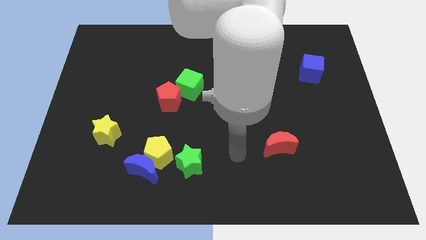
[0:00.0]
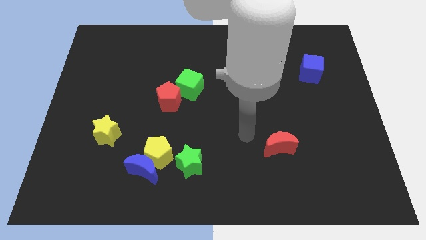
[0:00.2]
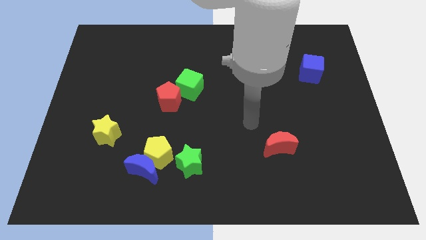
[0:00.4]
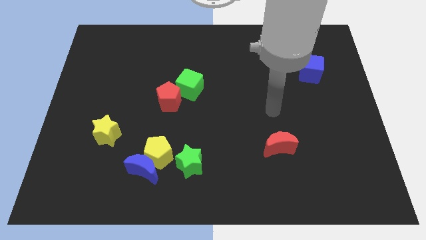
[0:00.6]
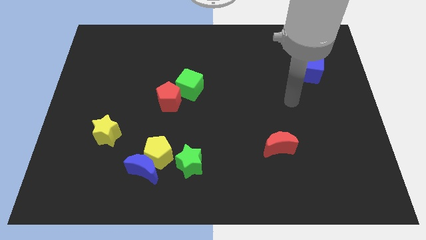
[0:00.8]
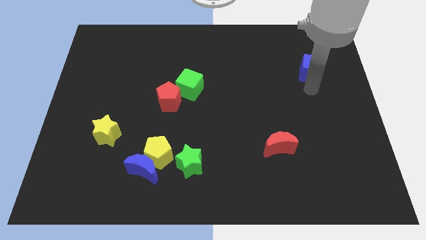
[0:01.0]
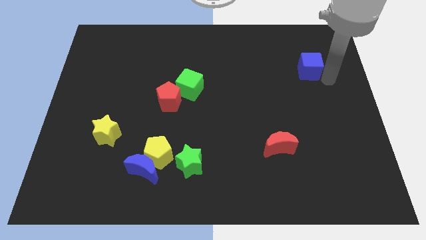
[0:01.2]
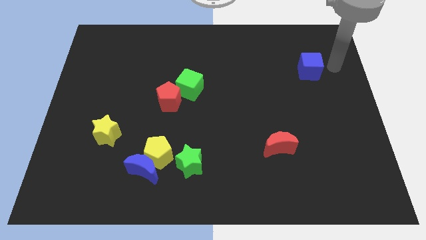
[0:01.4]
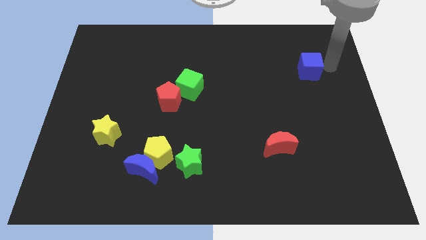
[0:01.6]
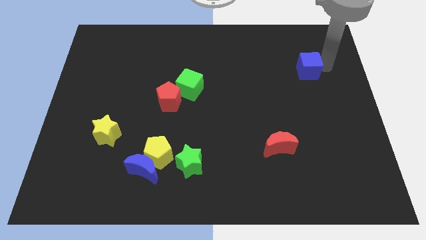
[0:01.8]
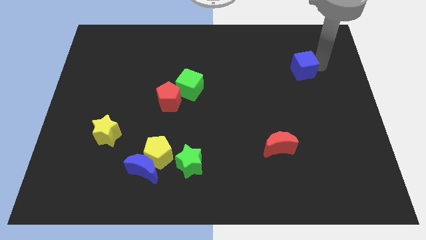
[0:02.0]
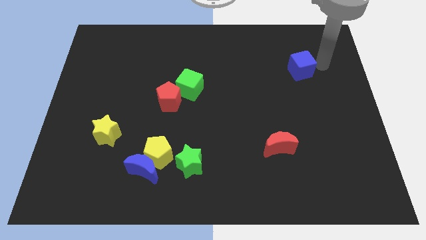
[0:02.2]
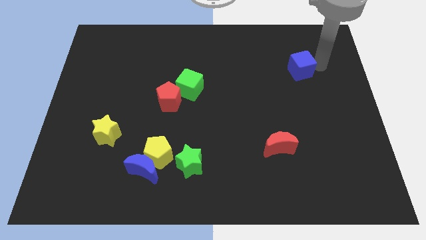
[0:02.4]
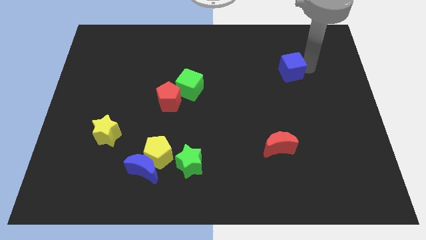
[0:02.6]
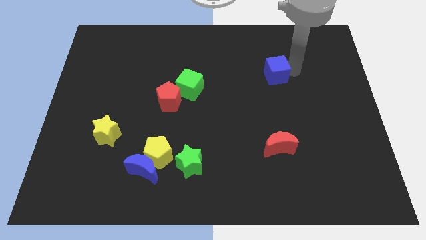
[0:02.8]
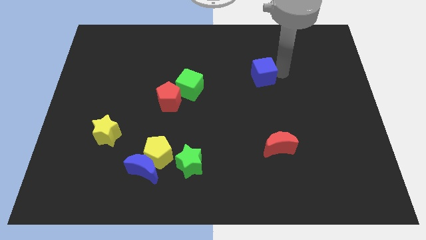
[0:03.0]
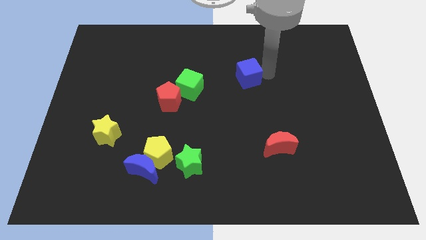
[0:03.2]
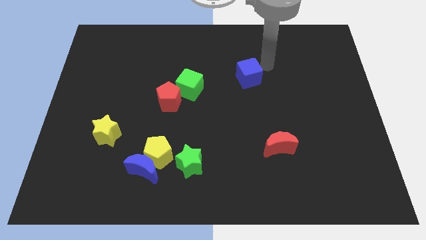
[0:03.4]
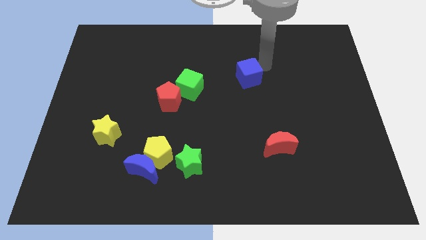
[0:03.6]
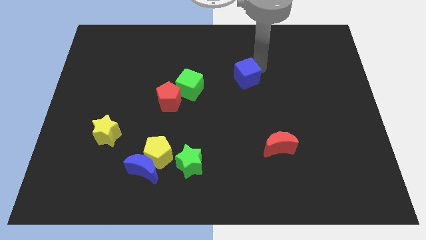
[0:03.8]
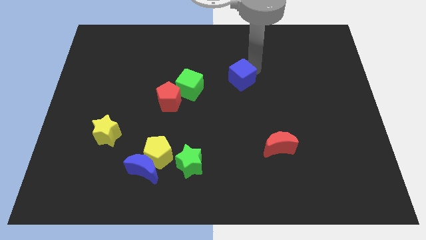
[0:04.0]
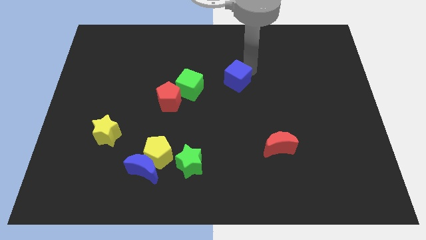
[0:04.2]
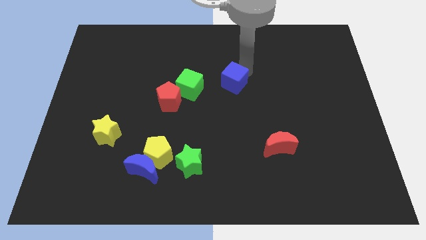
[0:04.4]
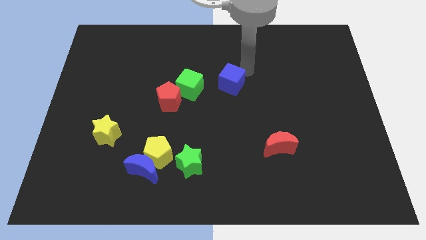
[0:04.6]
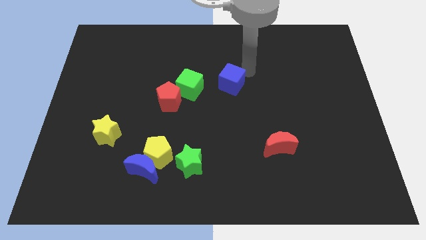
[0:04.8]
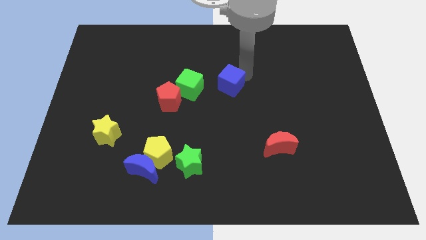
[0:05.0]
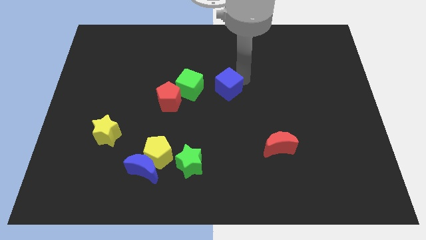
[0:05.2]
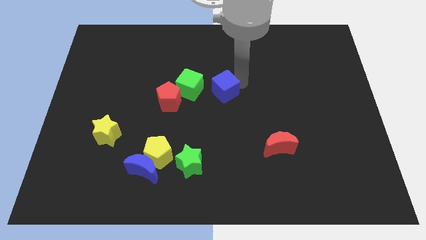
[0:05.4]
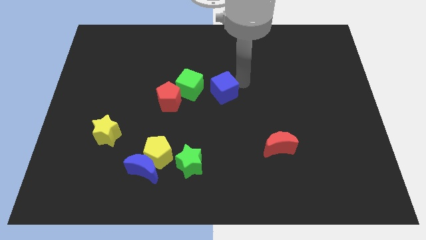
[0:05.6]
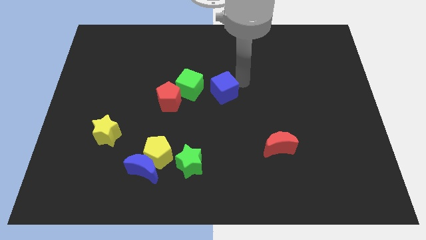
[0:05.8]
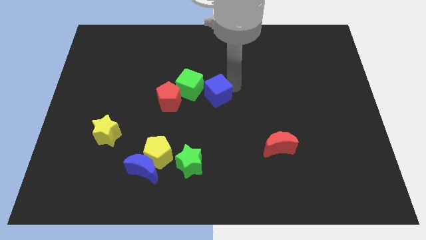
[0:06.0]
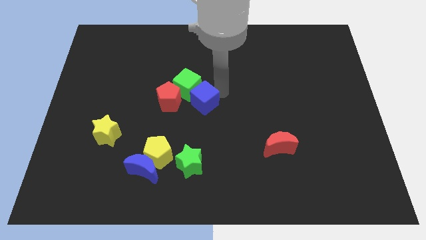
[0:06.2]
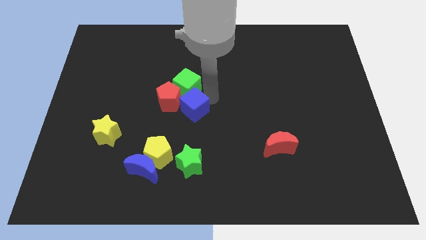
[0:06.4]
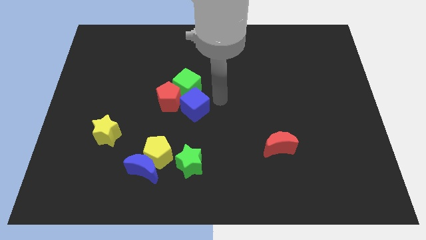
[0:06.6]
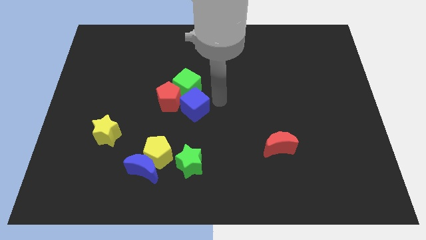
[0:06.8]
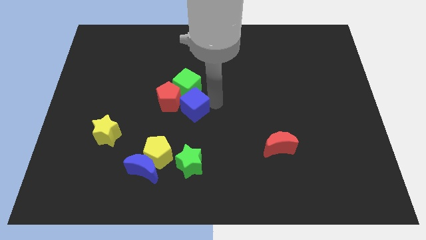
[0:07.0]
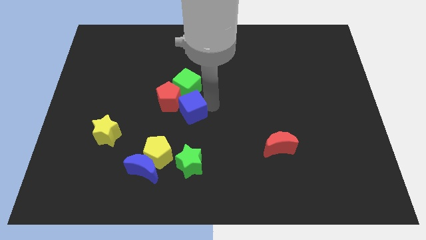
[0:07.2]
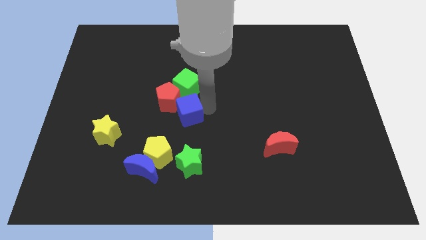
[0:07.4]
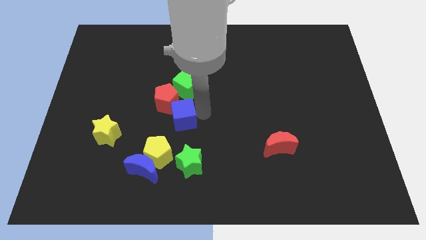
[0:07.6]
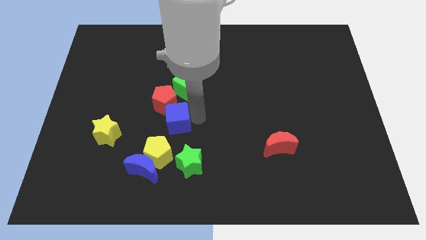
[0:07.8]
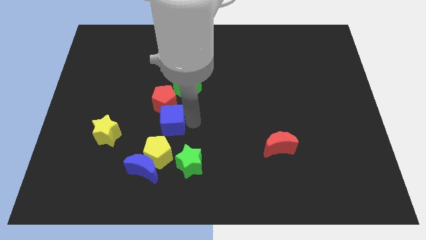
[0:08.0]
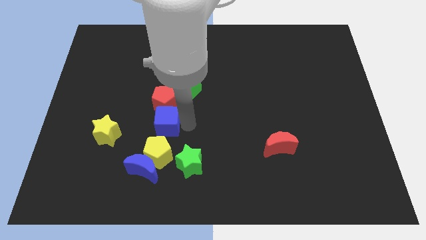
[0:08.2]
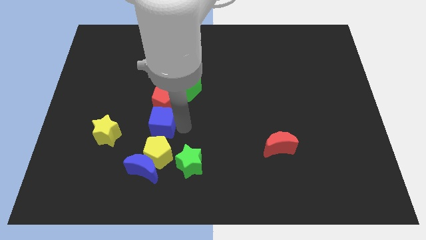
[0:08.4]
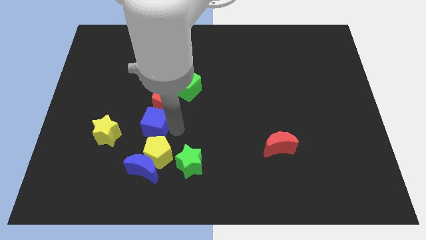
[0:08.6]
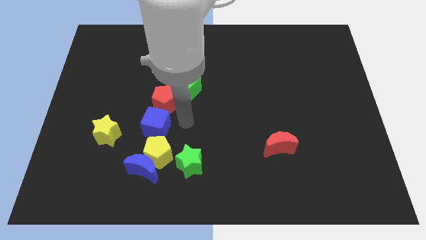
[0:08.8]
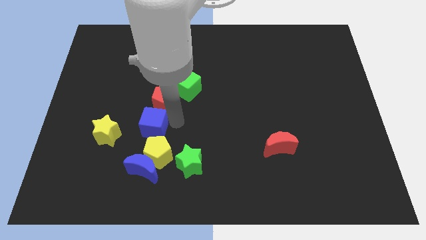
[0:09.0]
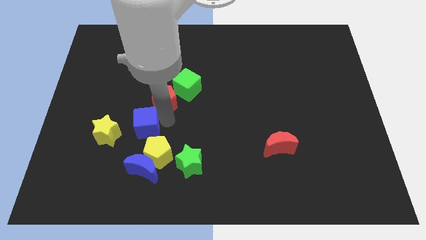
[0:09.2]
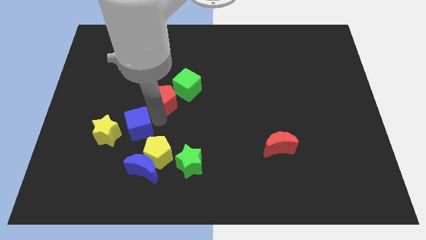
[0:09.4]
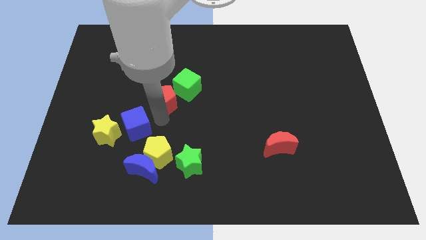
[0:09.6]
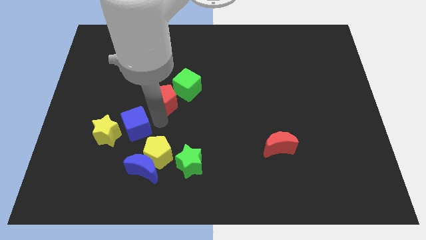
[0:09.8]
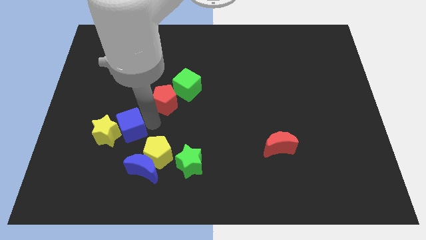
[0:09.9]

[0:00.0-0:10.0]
slide the blue cube next to the yellow star

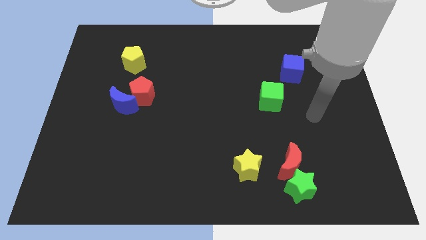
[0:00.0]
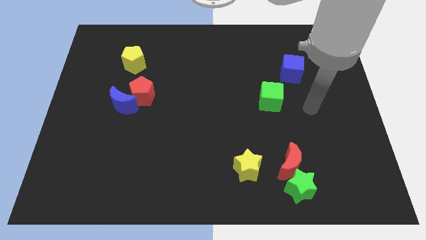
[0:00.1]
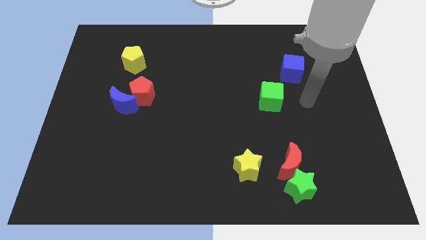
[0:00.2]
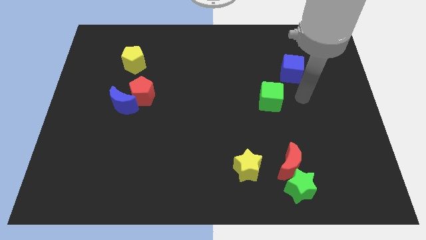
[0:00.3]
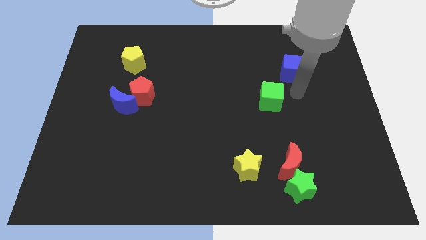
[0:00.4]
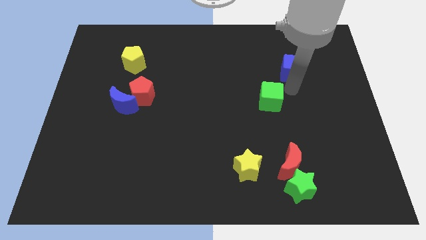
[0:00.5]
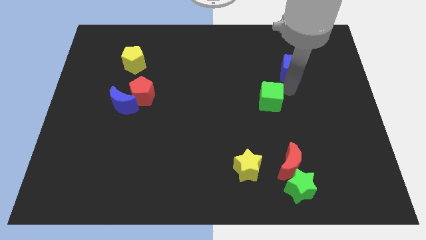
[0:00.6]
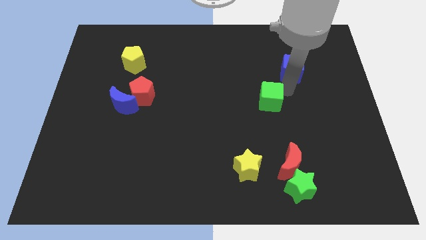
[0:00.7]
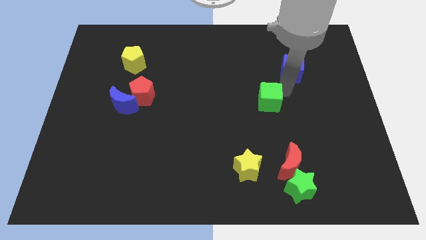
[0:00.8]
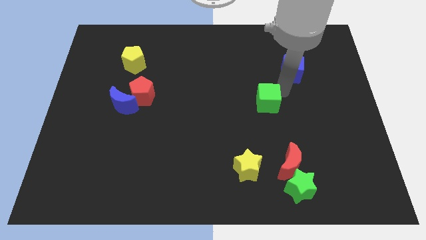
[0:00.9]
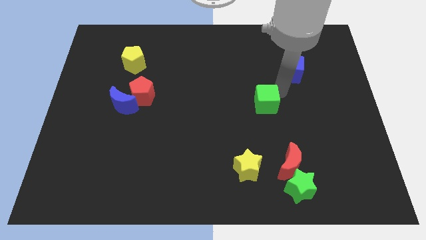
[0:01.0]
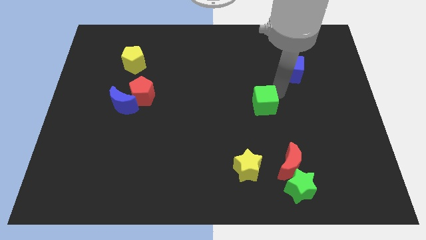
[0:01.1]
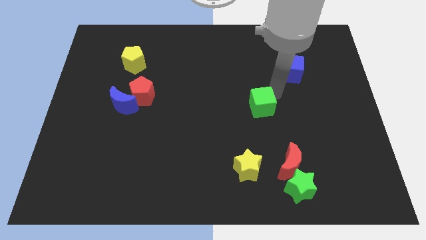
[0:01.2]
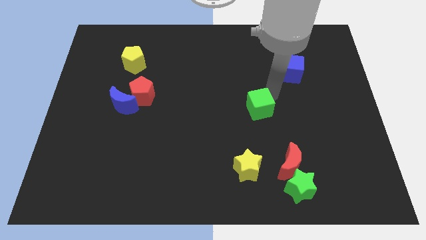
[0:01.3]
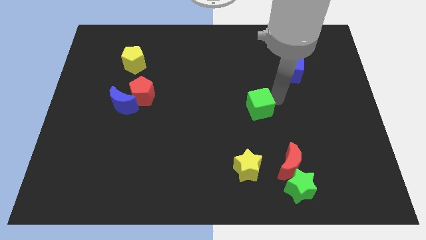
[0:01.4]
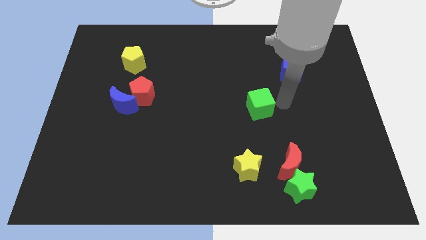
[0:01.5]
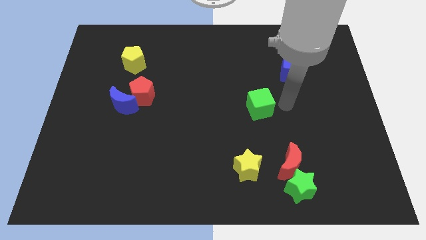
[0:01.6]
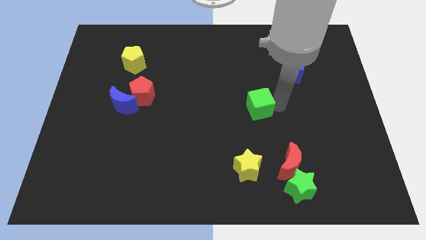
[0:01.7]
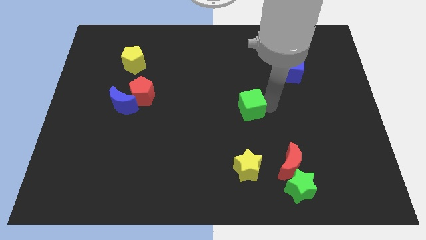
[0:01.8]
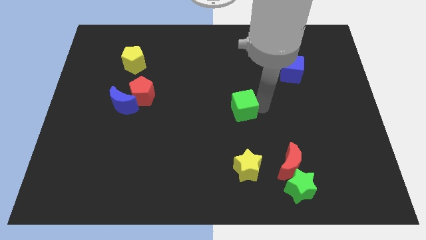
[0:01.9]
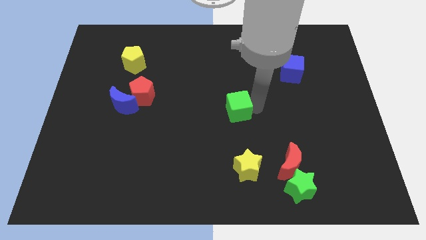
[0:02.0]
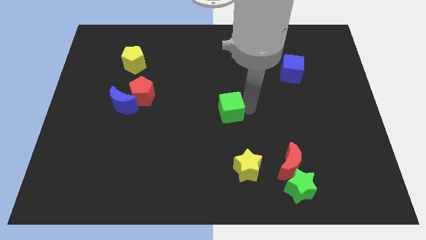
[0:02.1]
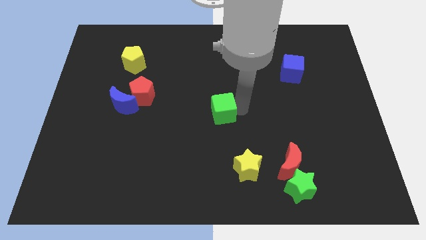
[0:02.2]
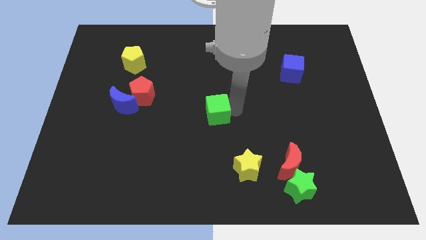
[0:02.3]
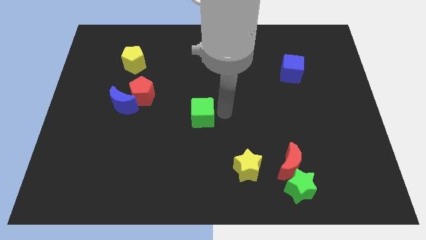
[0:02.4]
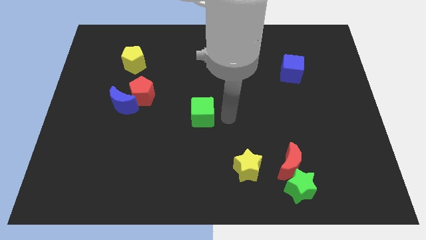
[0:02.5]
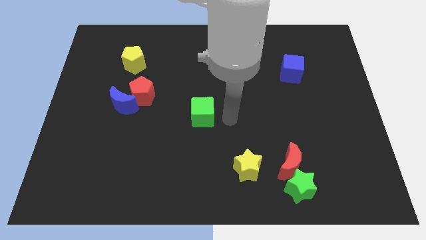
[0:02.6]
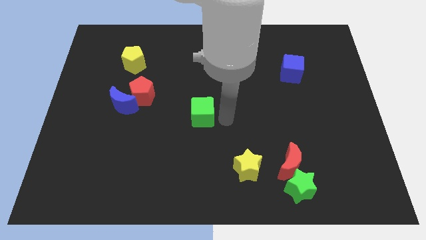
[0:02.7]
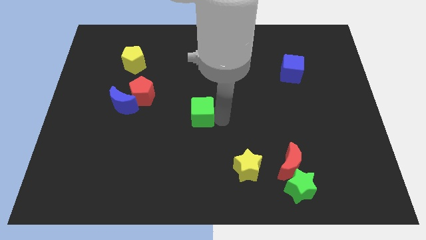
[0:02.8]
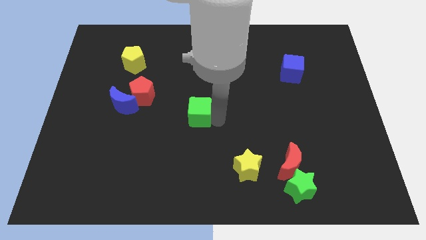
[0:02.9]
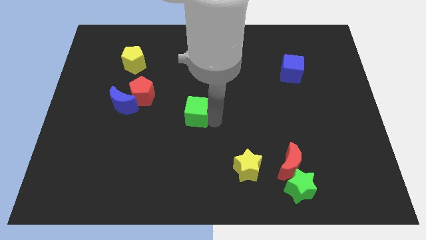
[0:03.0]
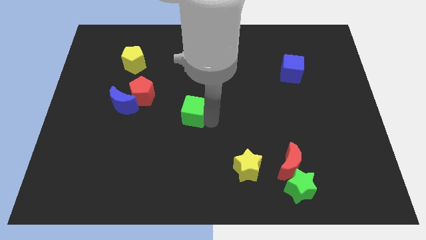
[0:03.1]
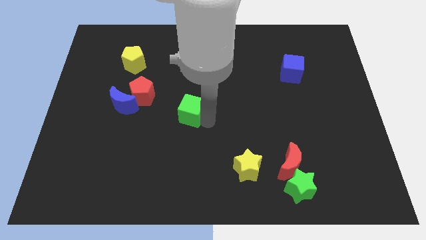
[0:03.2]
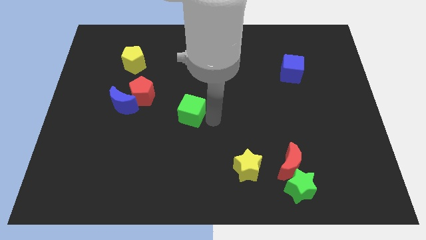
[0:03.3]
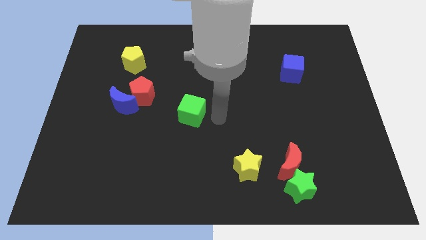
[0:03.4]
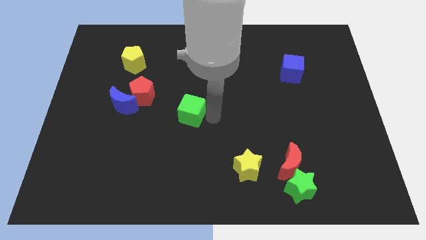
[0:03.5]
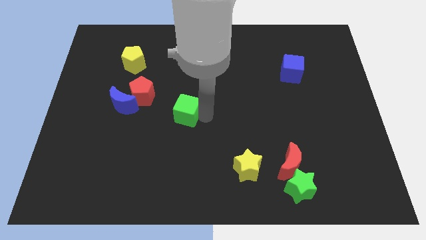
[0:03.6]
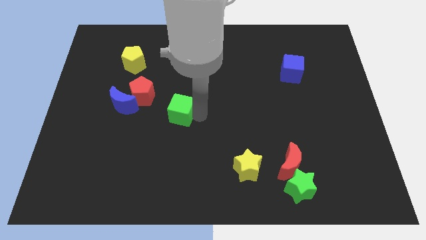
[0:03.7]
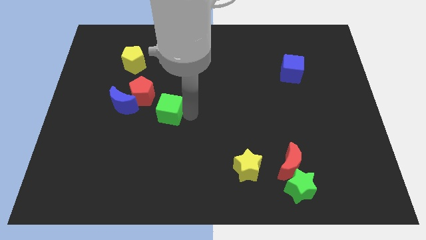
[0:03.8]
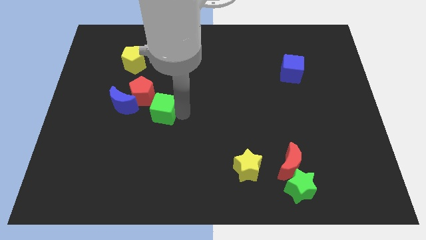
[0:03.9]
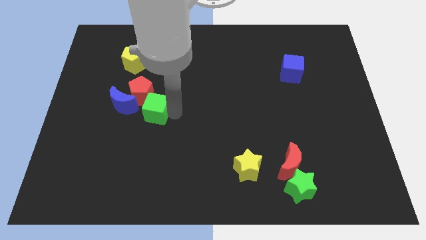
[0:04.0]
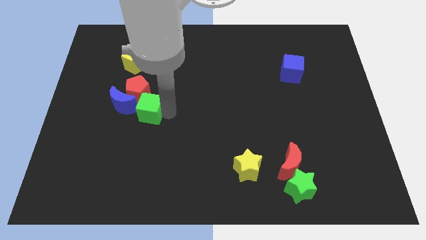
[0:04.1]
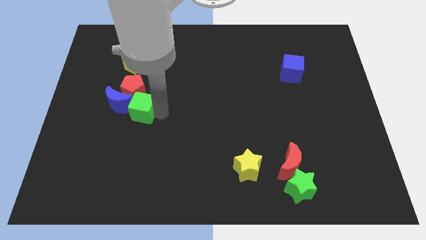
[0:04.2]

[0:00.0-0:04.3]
put the green cube towards the blue moon
